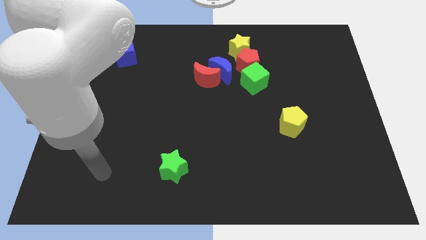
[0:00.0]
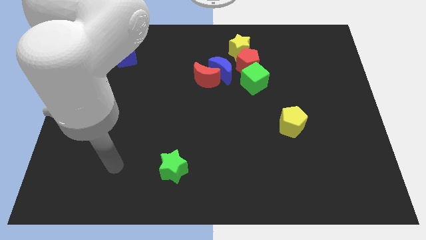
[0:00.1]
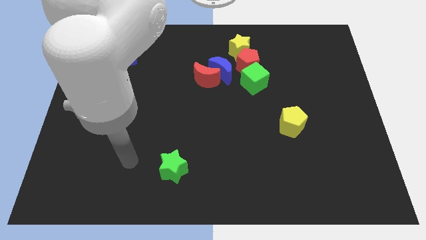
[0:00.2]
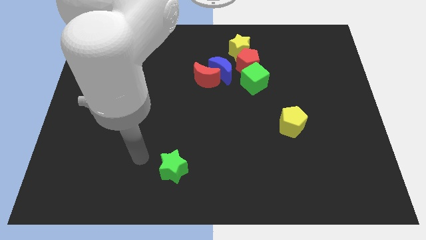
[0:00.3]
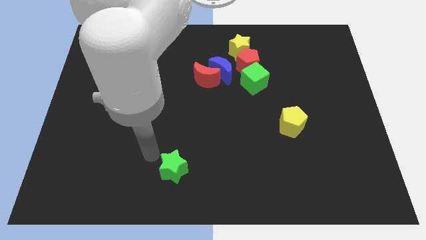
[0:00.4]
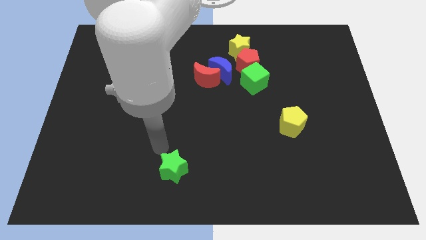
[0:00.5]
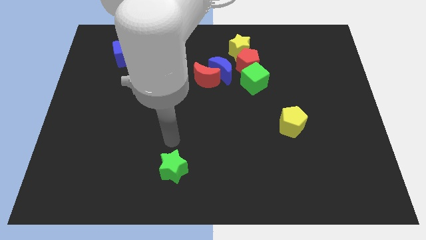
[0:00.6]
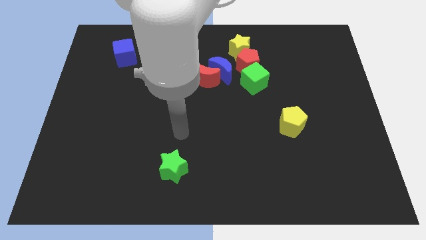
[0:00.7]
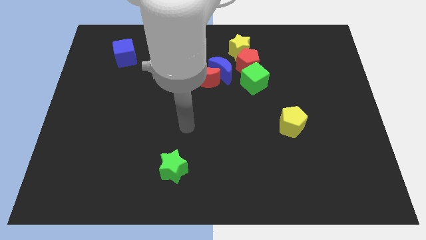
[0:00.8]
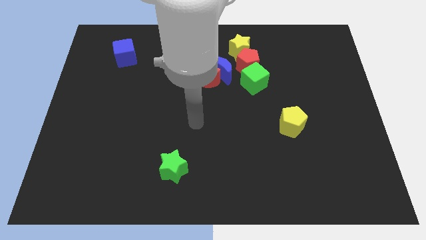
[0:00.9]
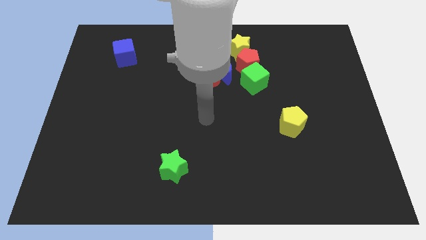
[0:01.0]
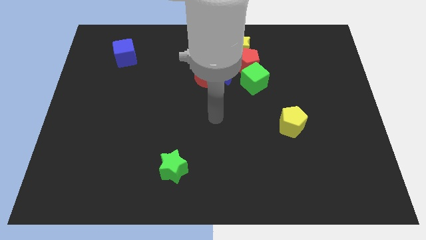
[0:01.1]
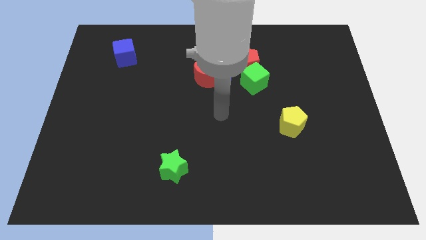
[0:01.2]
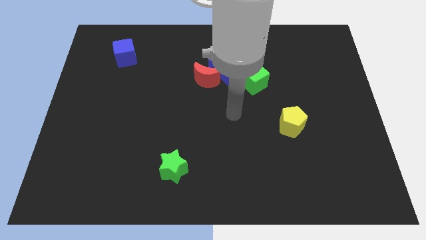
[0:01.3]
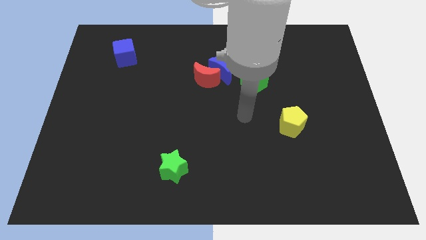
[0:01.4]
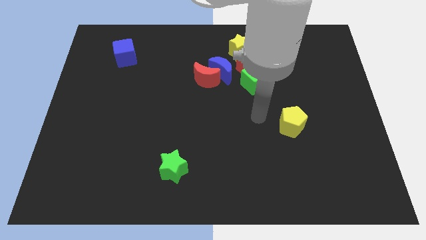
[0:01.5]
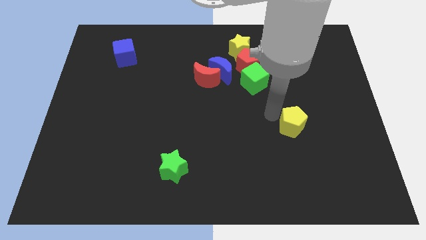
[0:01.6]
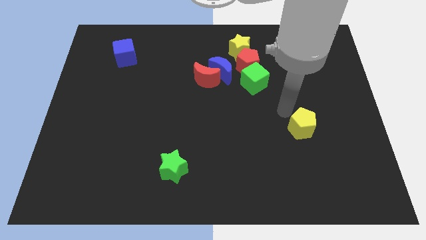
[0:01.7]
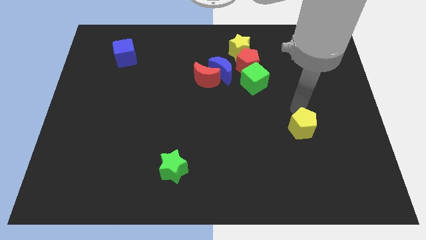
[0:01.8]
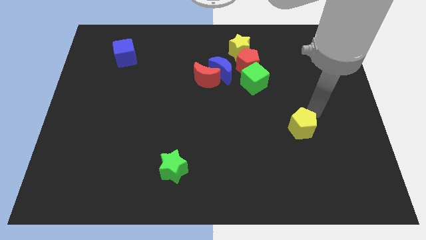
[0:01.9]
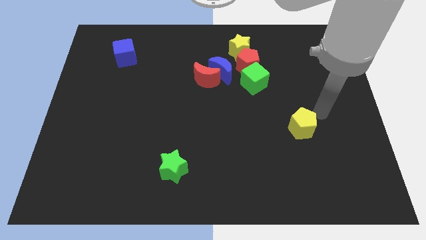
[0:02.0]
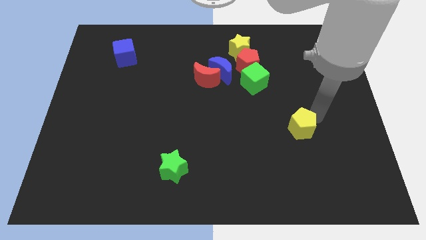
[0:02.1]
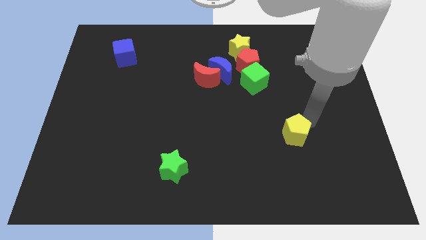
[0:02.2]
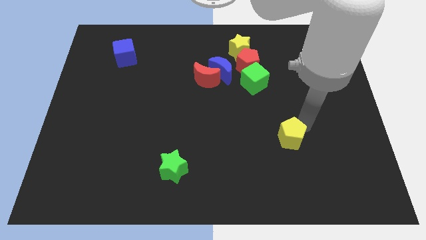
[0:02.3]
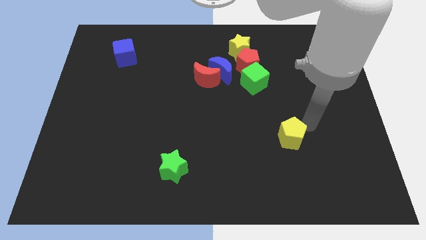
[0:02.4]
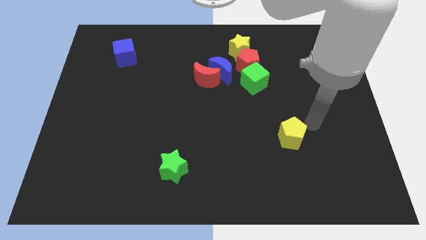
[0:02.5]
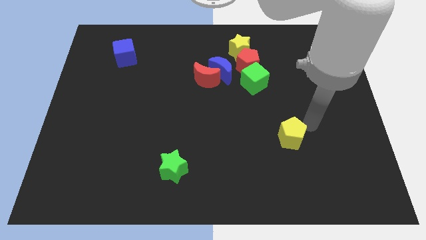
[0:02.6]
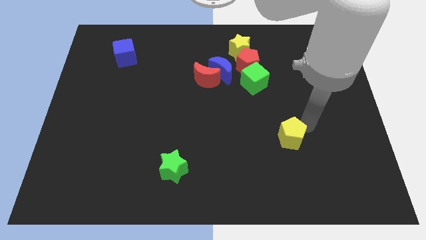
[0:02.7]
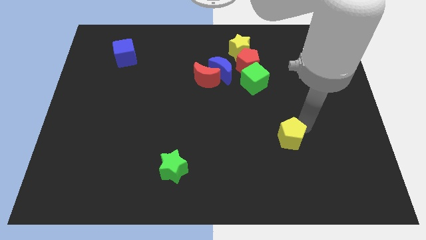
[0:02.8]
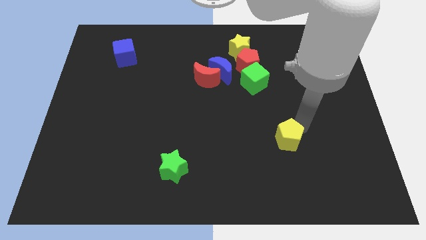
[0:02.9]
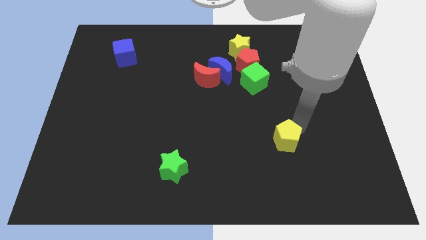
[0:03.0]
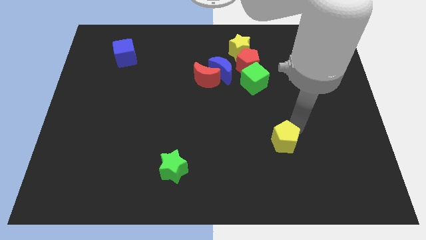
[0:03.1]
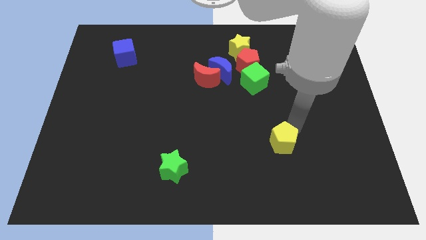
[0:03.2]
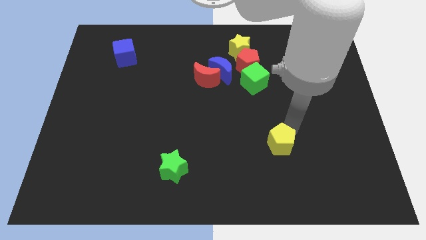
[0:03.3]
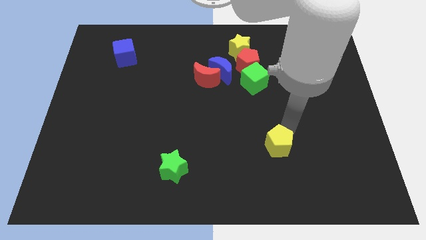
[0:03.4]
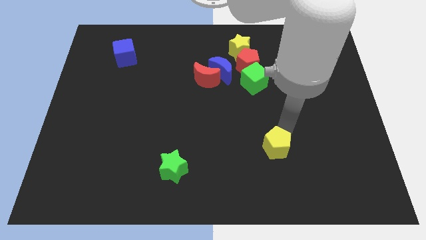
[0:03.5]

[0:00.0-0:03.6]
slightly push the yellow pentagon downwards and left diagonally

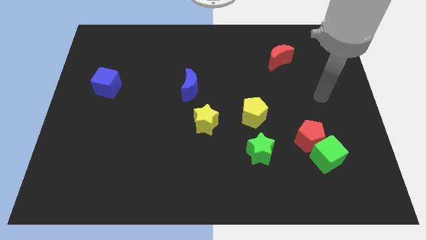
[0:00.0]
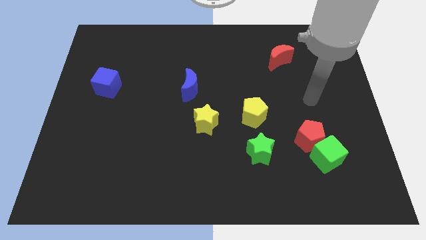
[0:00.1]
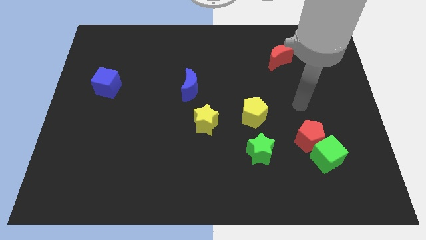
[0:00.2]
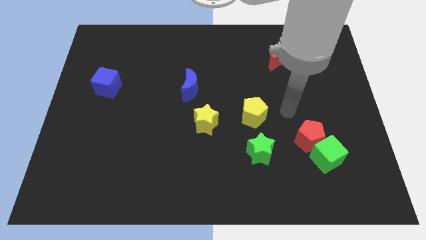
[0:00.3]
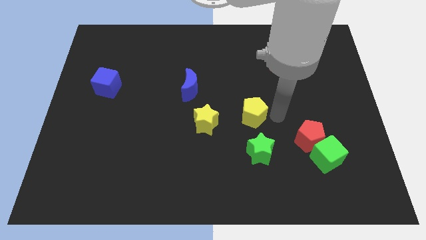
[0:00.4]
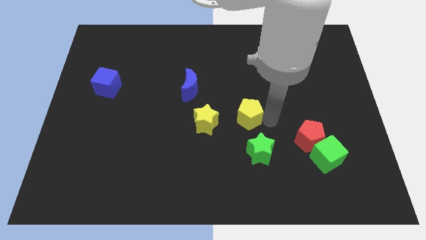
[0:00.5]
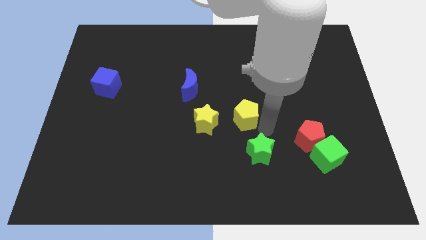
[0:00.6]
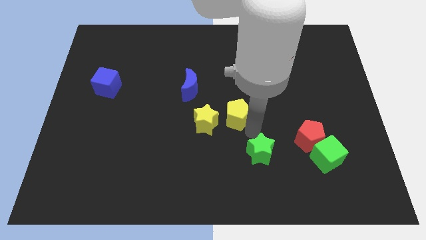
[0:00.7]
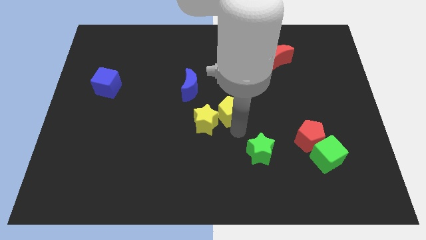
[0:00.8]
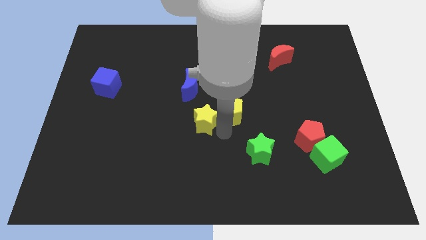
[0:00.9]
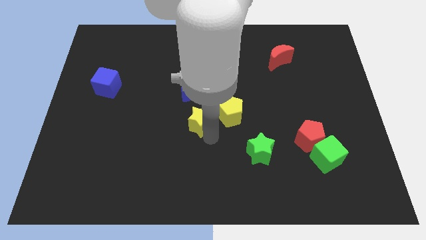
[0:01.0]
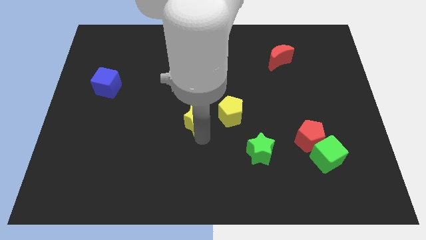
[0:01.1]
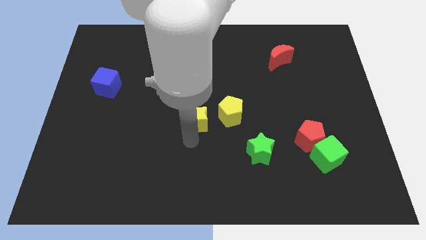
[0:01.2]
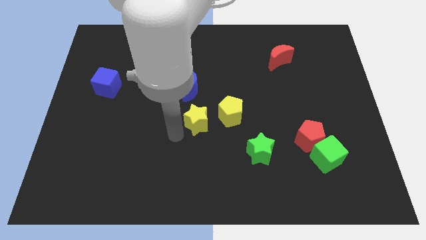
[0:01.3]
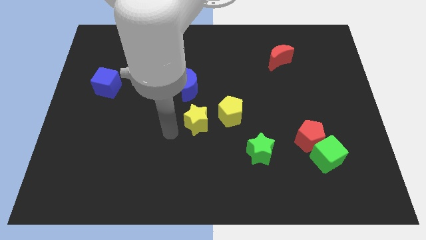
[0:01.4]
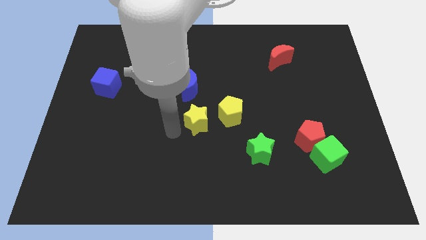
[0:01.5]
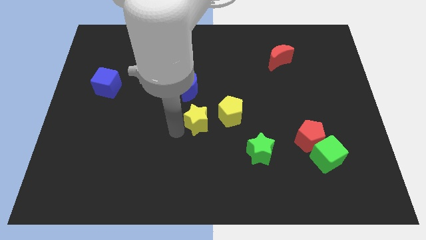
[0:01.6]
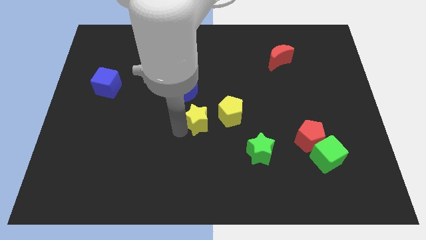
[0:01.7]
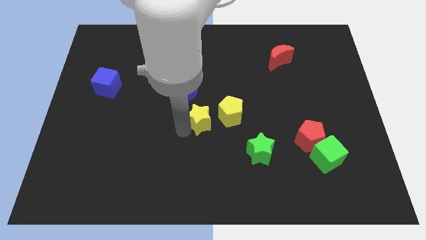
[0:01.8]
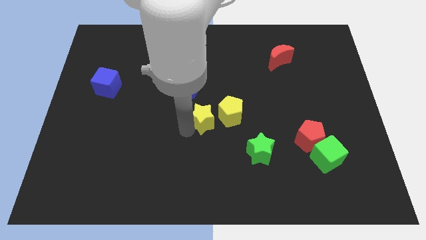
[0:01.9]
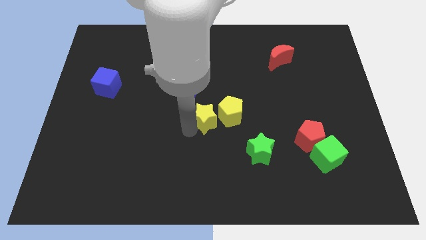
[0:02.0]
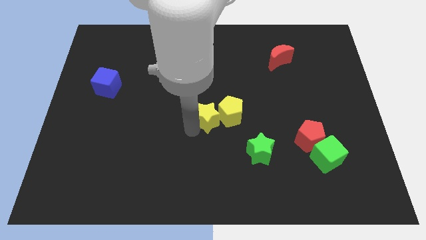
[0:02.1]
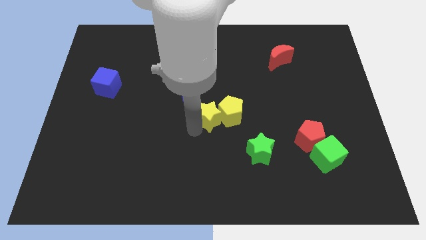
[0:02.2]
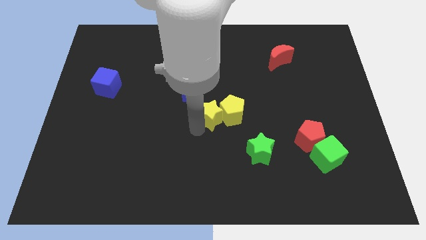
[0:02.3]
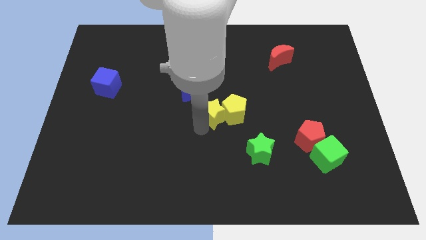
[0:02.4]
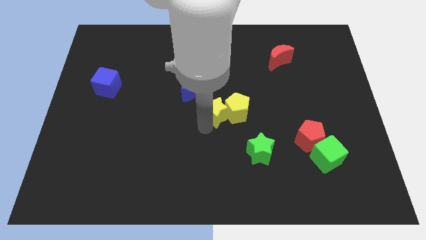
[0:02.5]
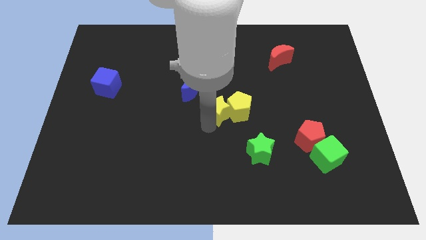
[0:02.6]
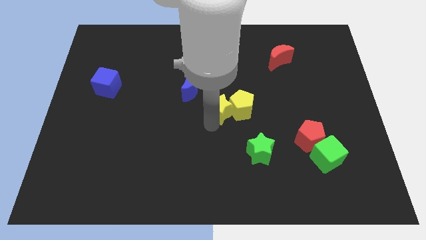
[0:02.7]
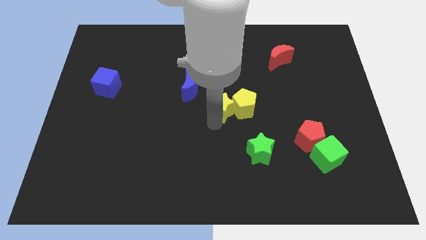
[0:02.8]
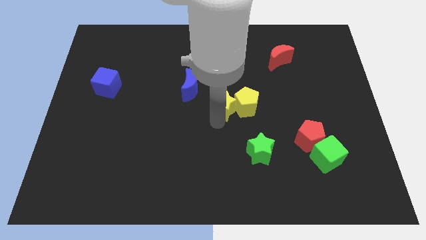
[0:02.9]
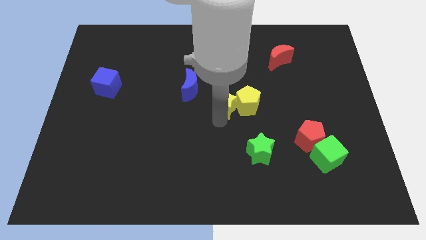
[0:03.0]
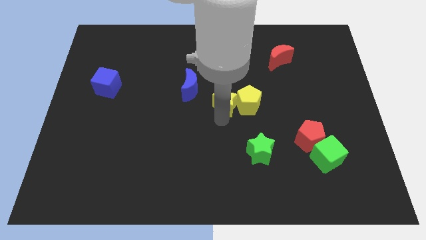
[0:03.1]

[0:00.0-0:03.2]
push the yellow star a little diagonally up and to the right

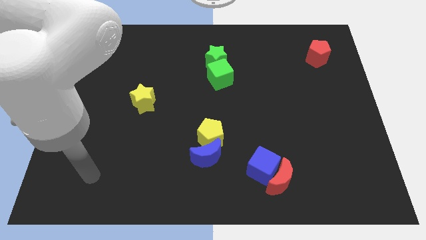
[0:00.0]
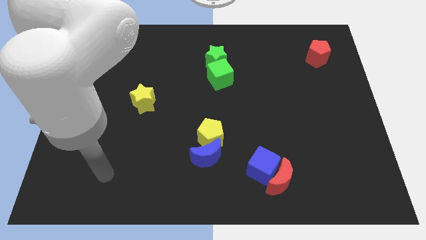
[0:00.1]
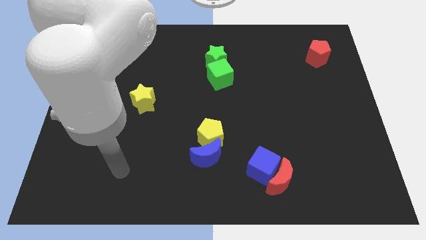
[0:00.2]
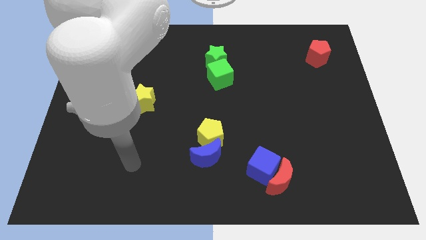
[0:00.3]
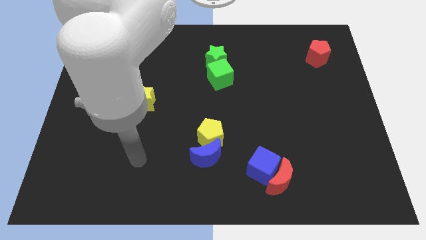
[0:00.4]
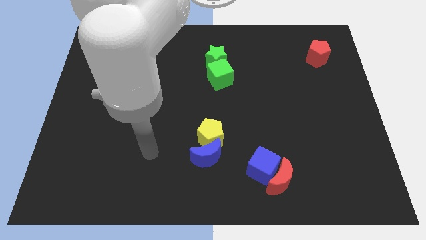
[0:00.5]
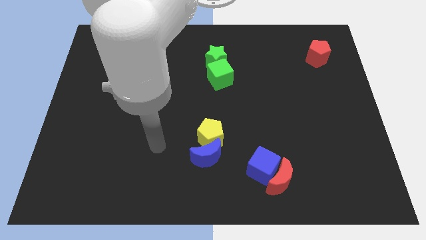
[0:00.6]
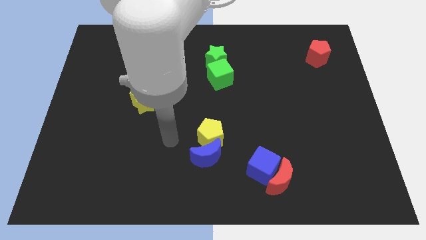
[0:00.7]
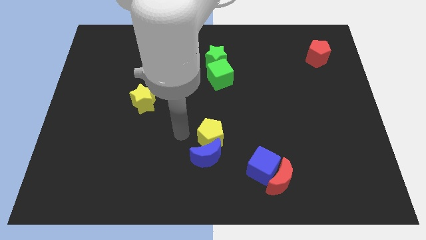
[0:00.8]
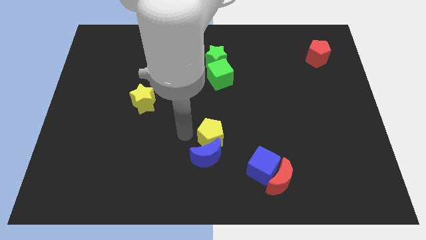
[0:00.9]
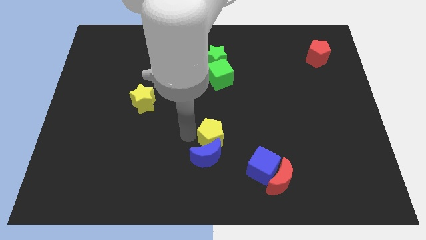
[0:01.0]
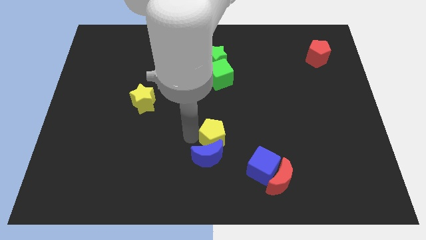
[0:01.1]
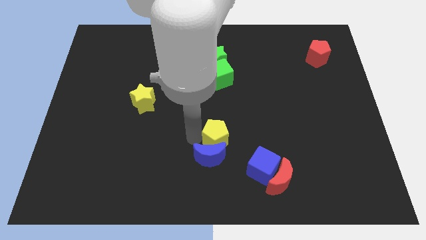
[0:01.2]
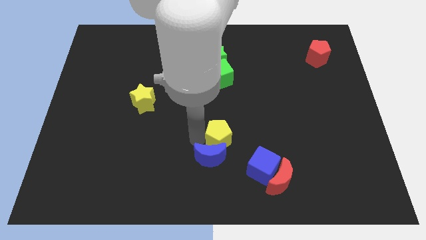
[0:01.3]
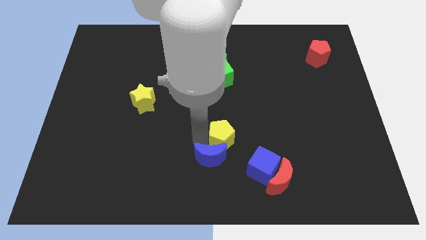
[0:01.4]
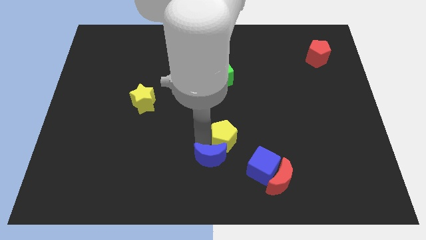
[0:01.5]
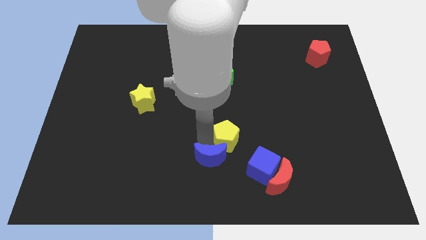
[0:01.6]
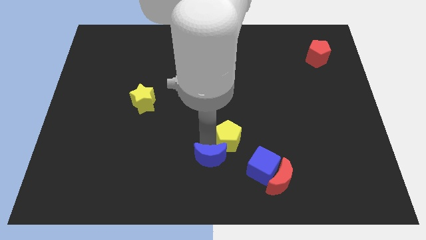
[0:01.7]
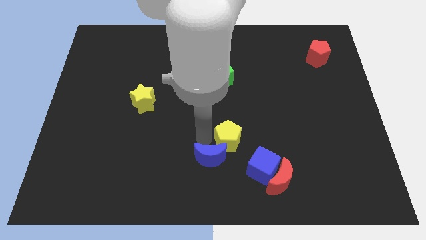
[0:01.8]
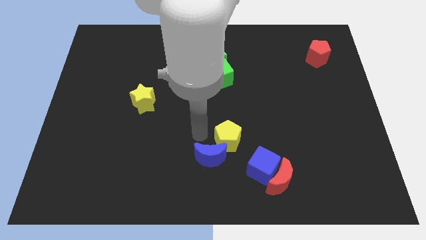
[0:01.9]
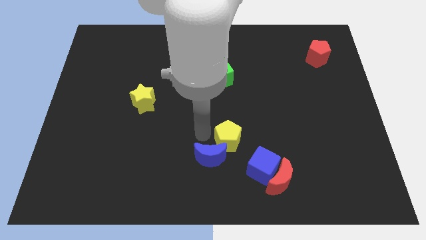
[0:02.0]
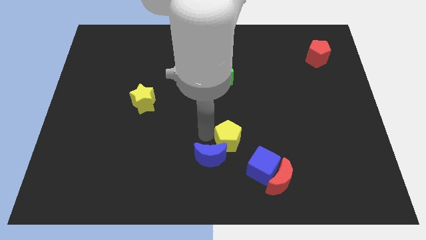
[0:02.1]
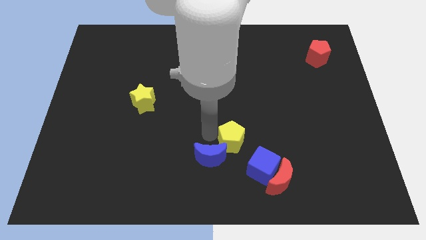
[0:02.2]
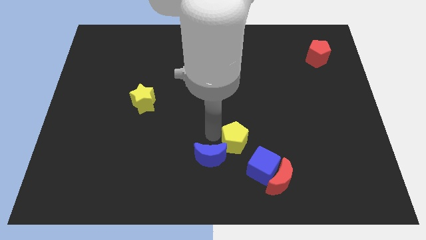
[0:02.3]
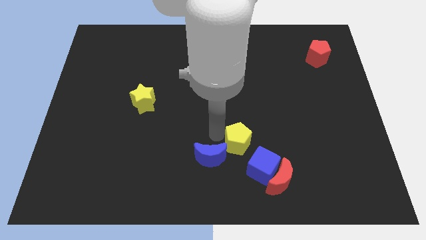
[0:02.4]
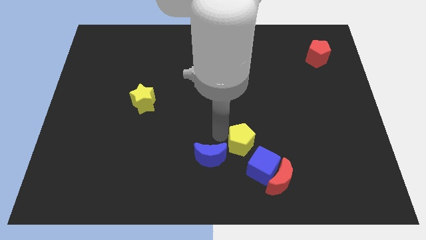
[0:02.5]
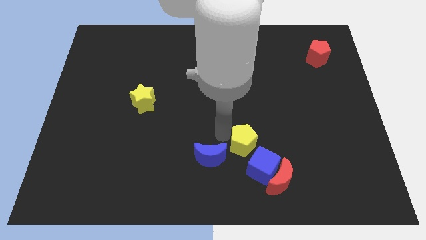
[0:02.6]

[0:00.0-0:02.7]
slightly slide the yellow pentagon right
